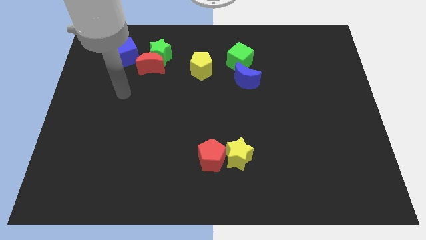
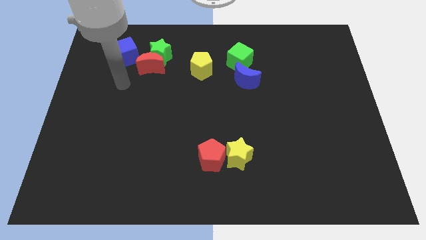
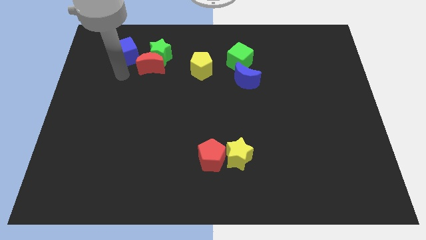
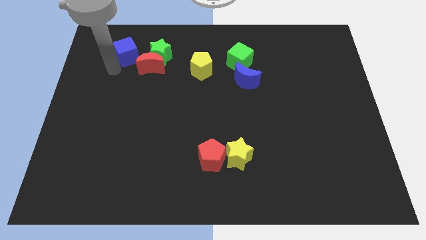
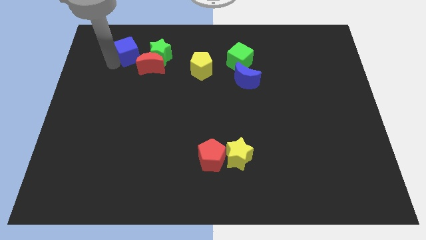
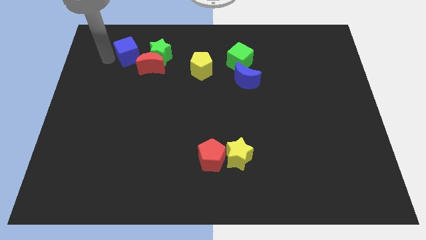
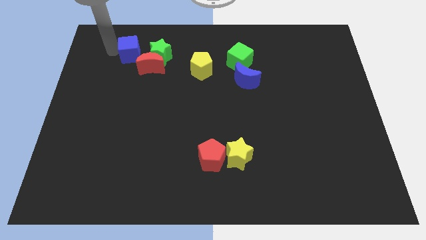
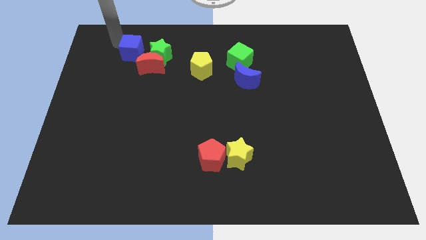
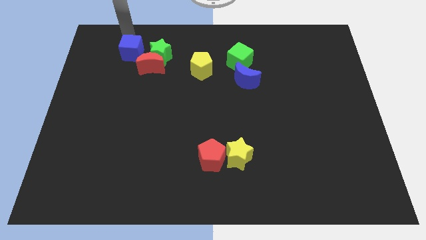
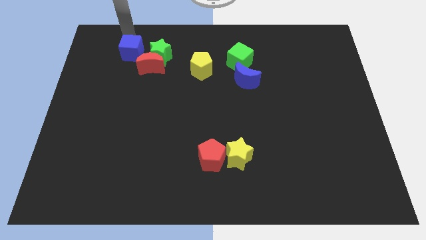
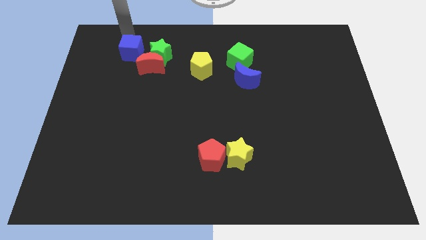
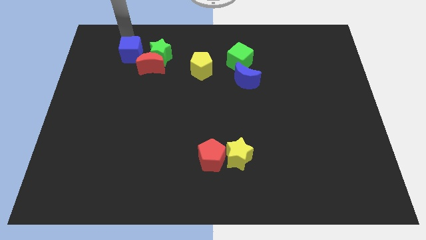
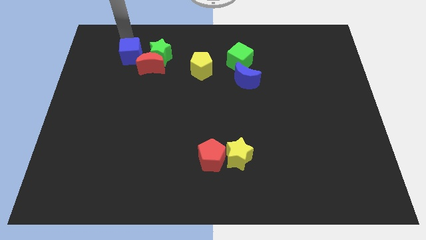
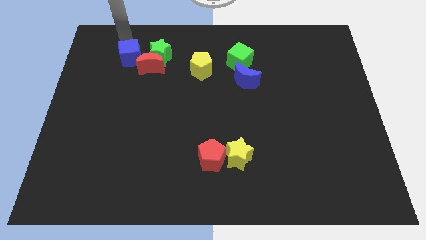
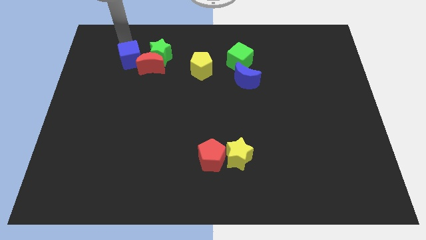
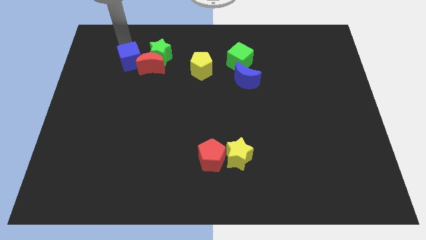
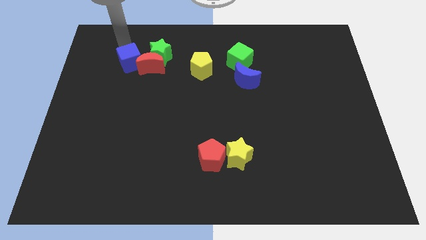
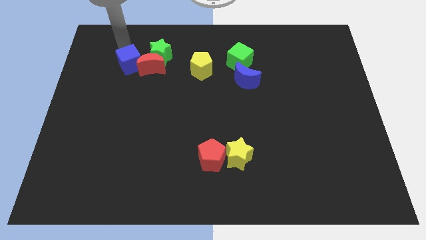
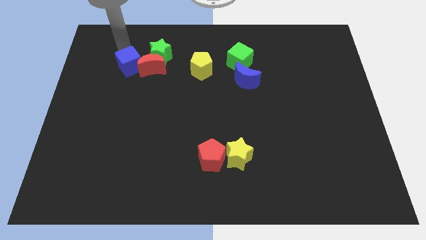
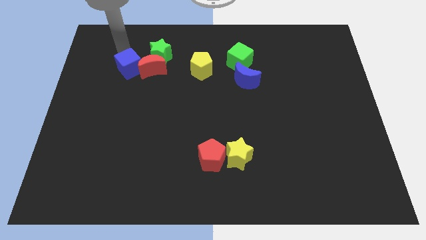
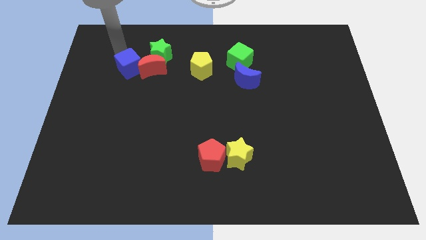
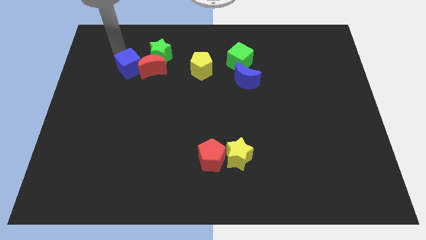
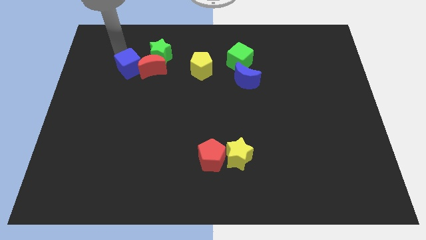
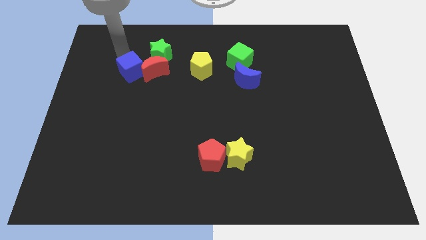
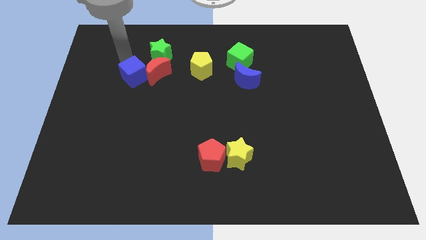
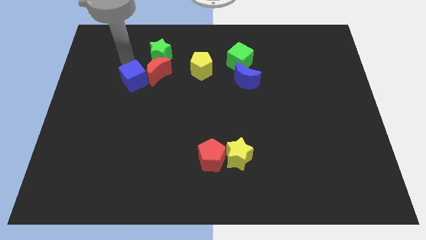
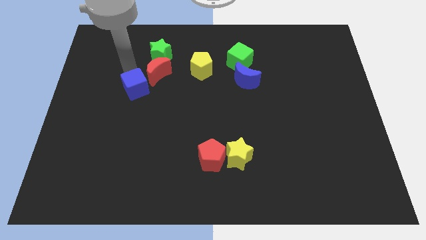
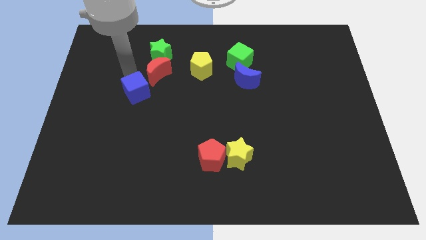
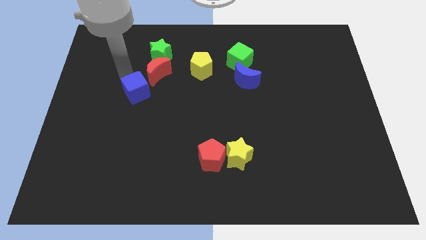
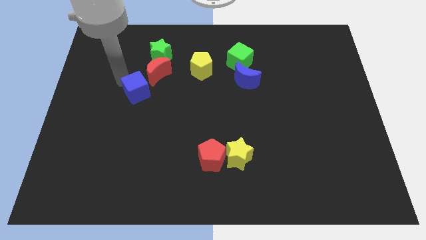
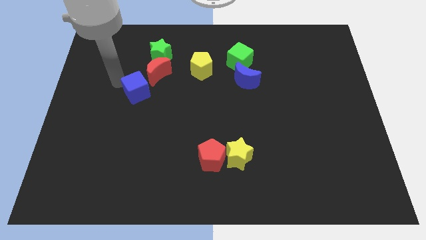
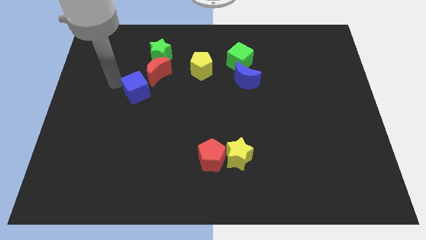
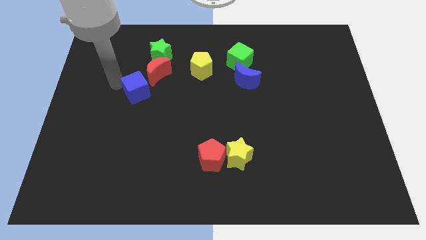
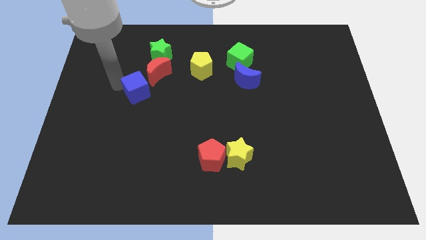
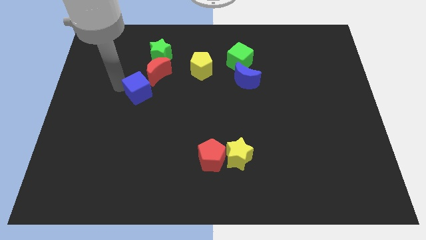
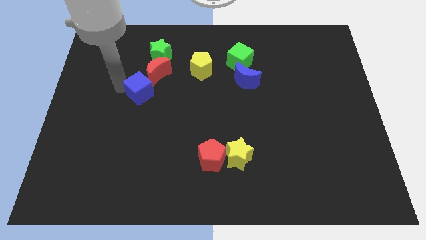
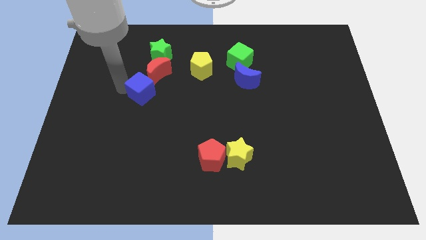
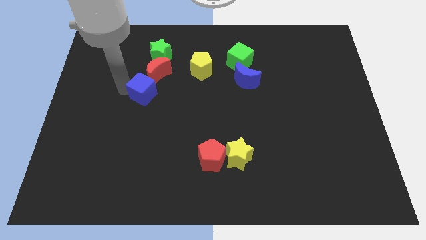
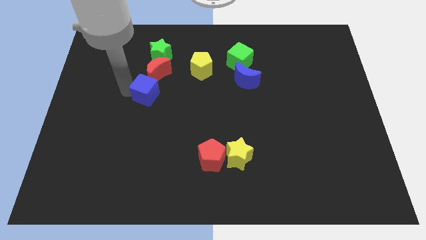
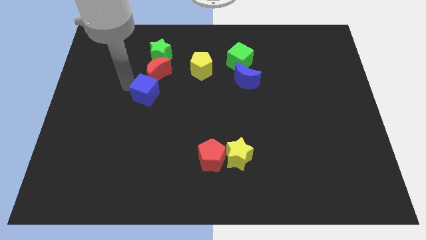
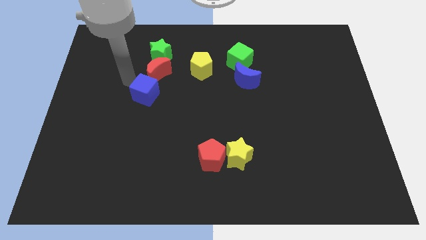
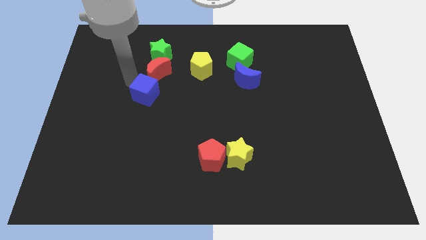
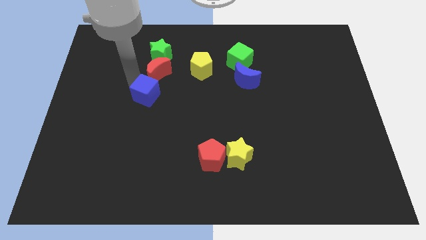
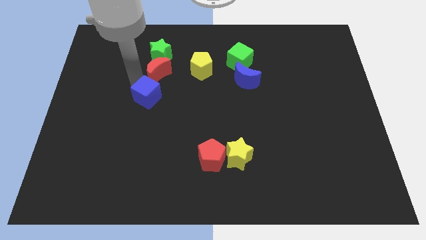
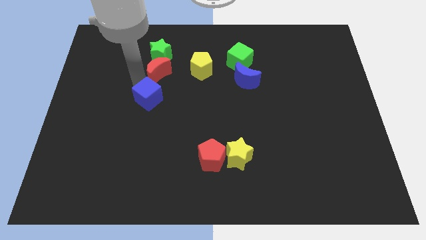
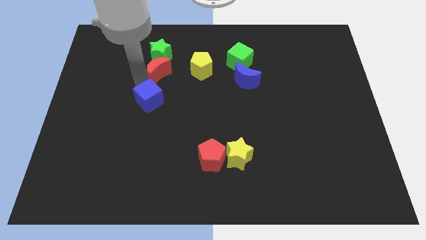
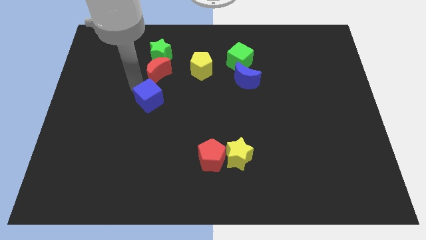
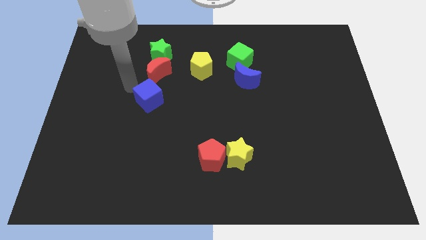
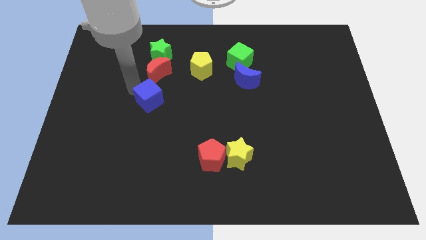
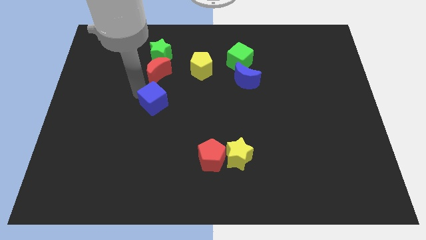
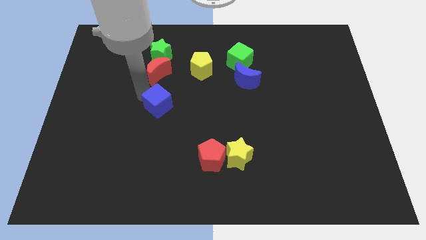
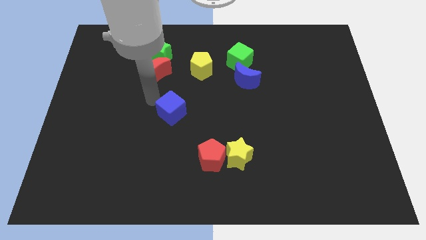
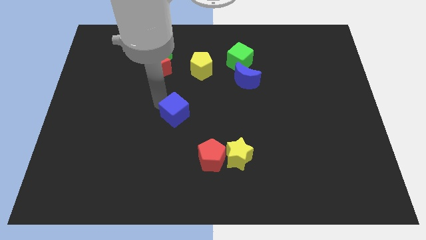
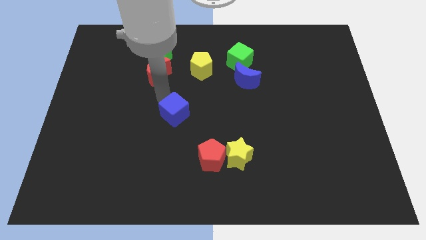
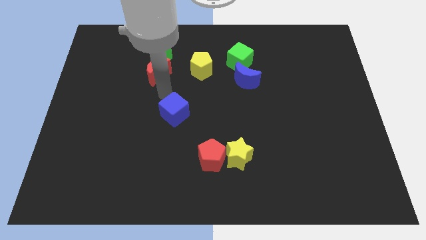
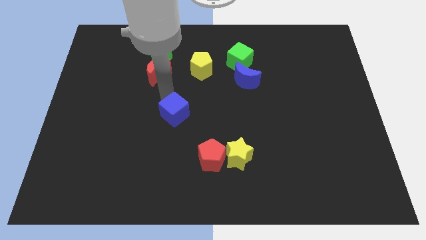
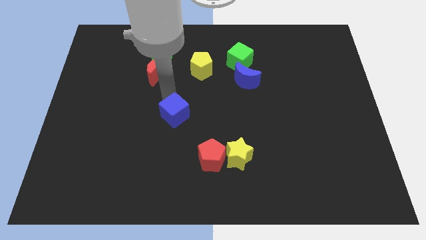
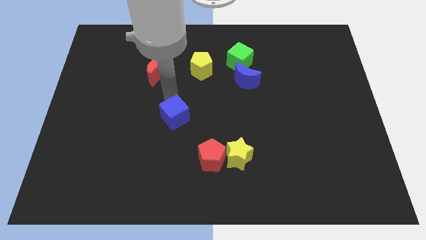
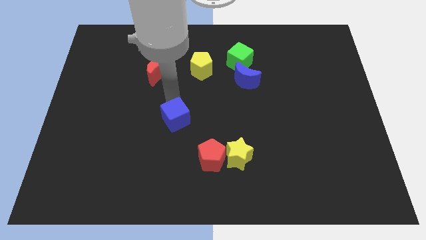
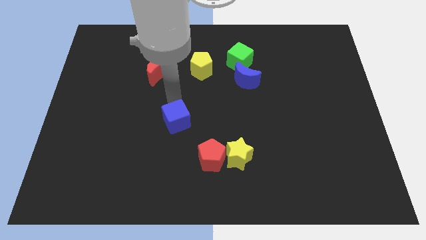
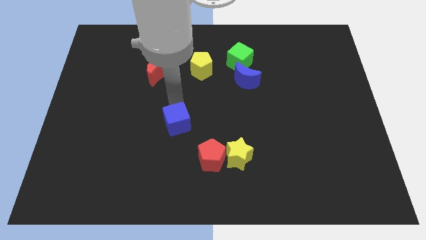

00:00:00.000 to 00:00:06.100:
push the blue cube to the top left of the red pentagon

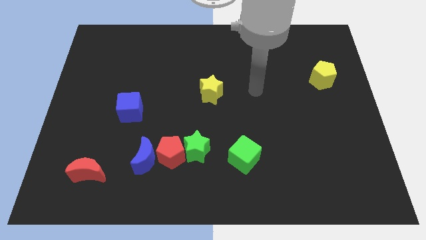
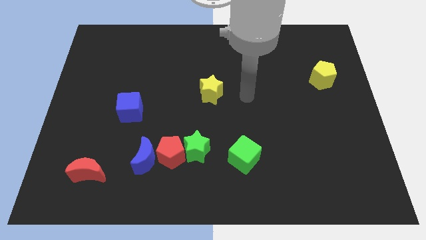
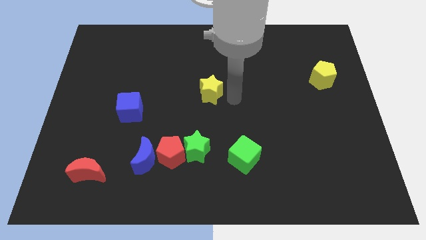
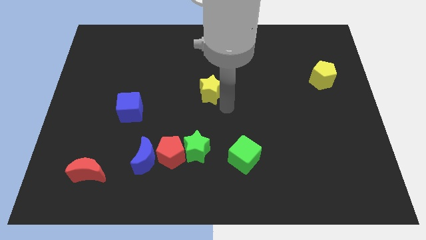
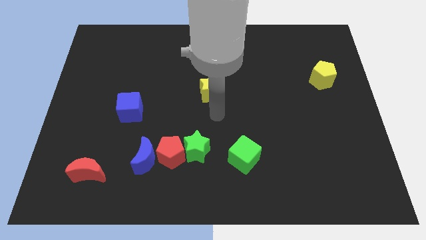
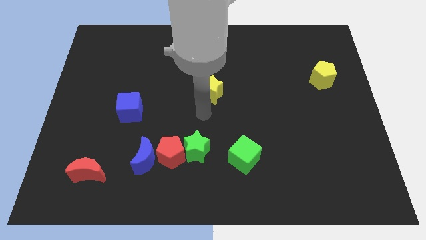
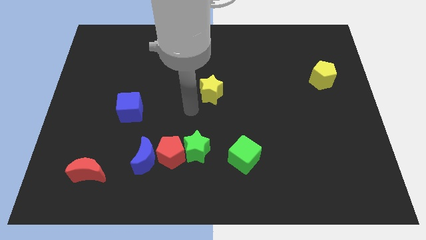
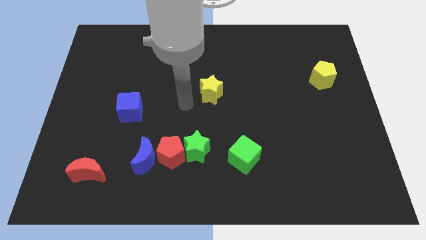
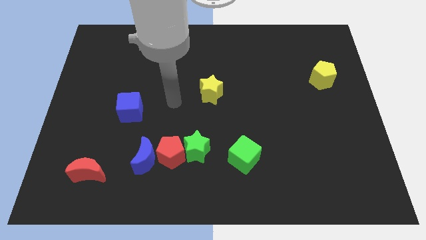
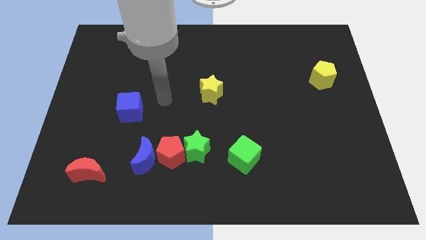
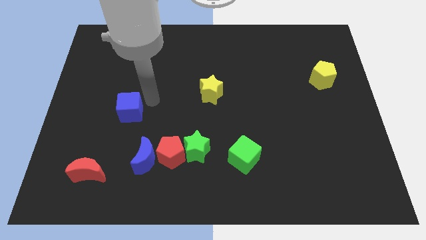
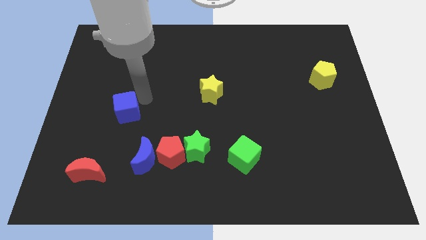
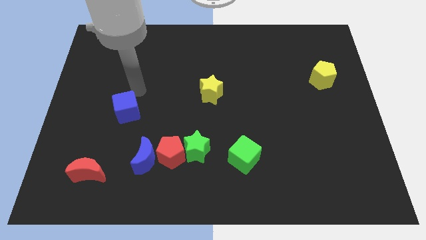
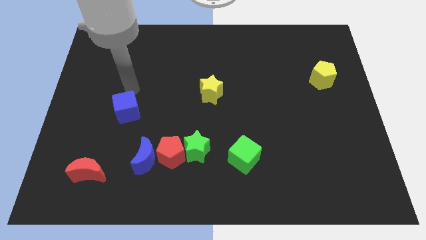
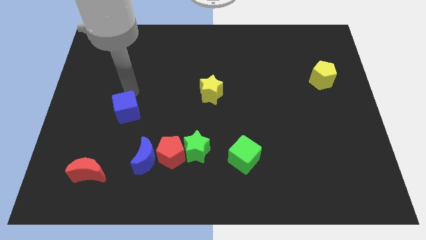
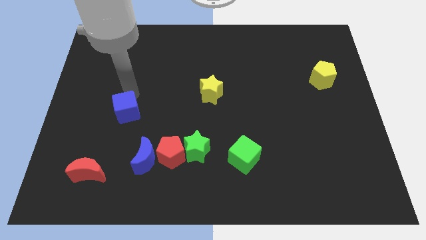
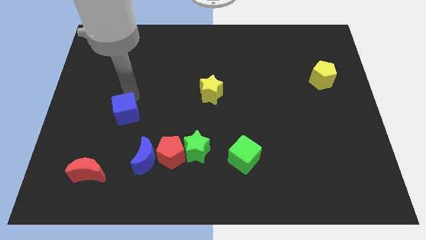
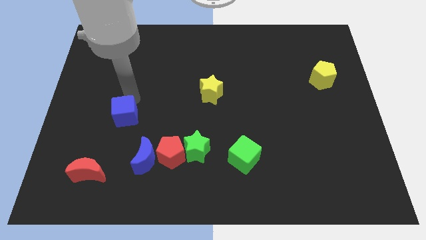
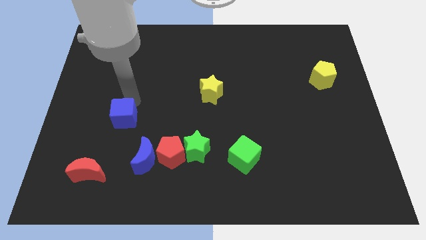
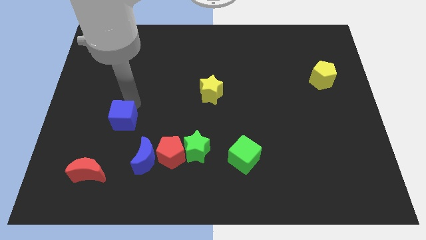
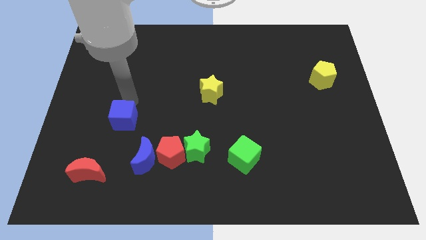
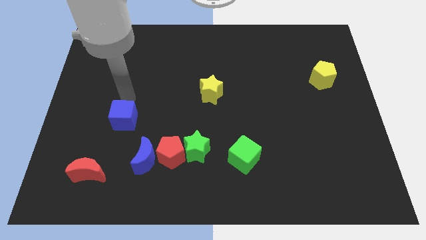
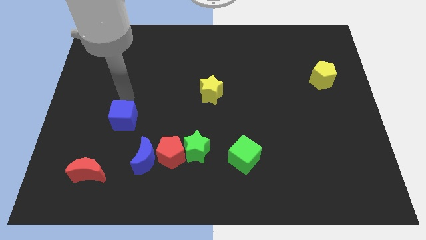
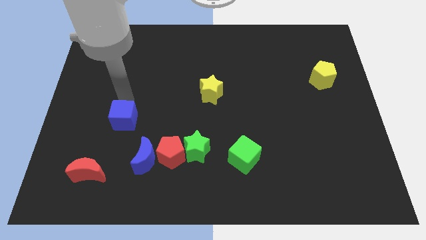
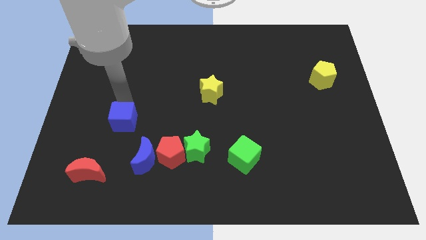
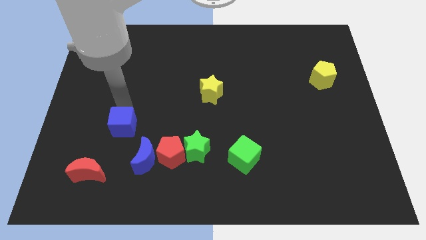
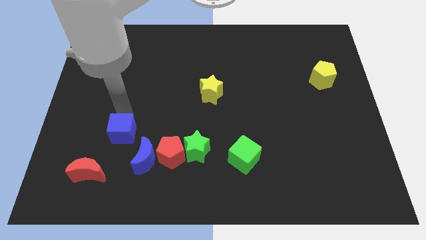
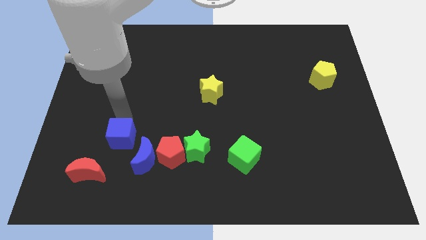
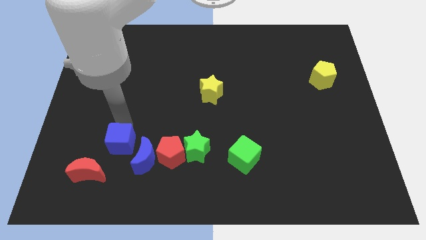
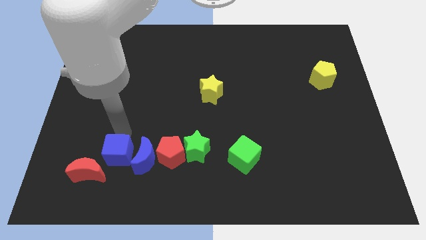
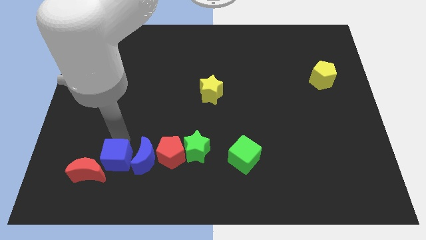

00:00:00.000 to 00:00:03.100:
push the blue cube to the bottom left side of the blue moon
